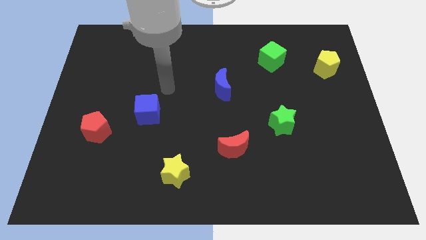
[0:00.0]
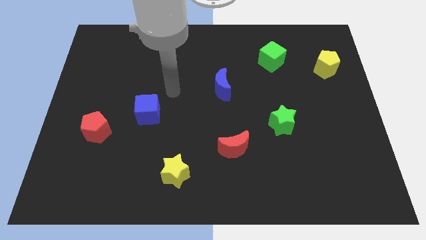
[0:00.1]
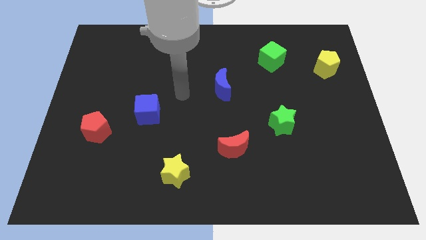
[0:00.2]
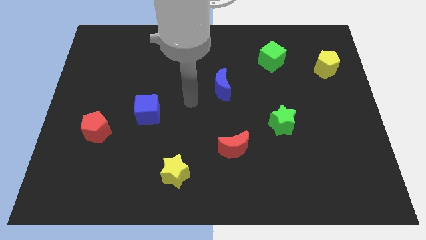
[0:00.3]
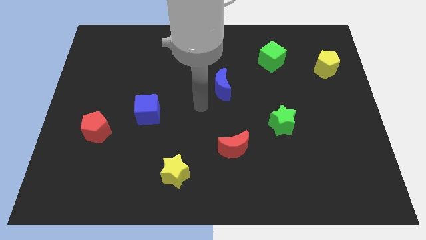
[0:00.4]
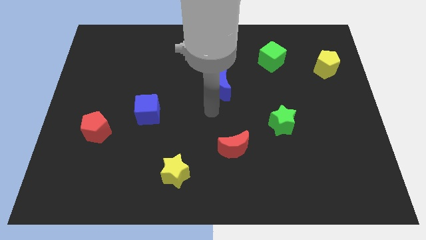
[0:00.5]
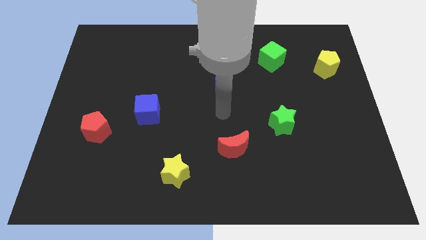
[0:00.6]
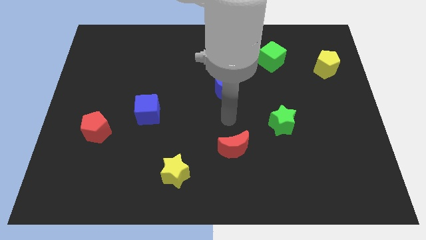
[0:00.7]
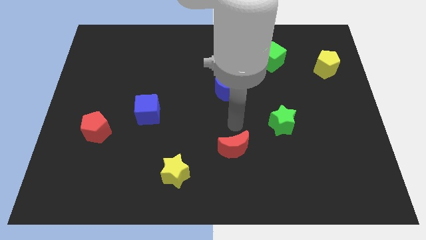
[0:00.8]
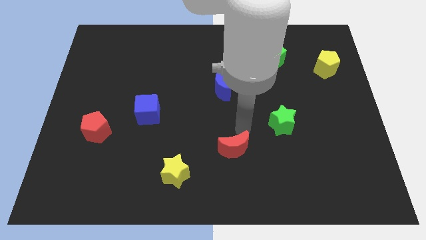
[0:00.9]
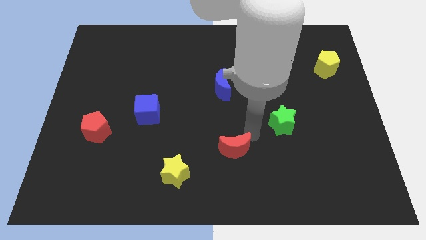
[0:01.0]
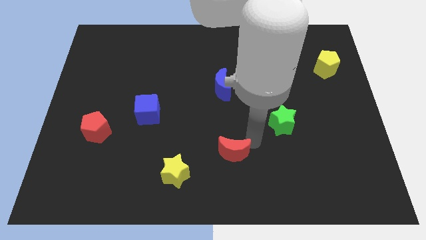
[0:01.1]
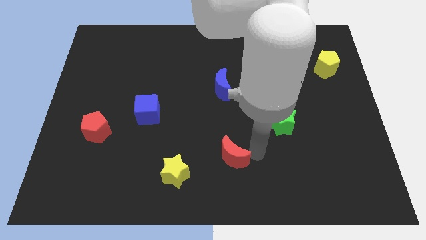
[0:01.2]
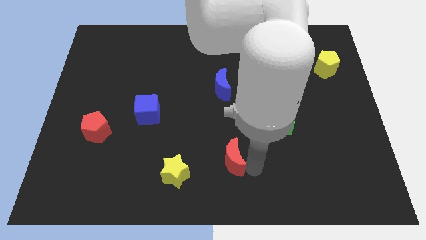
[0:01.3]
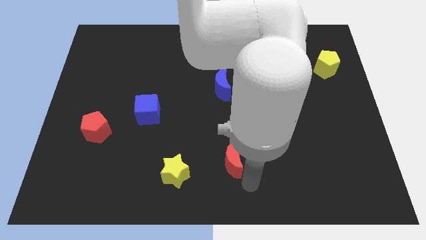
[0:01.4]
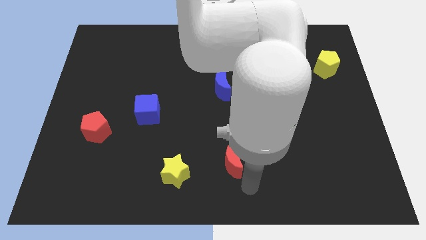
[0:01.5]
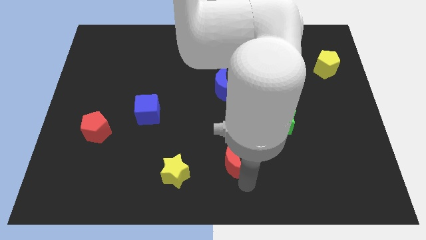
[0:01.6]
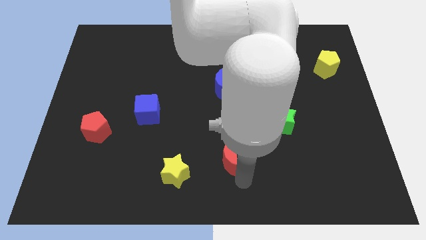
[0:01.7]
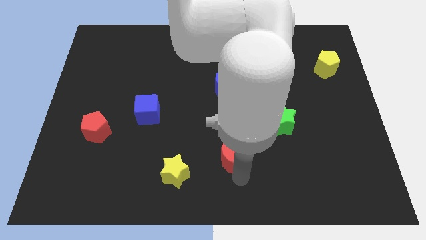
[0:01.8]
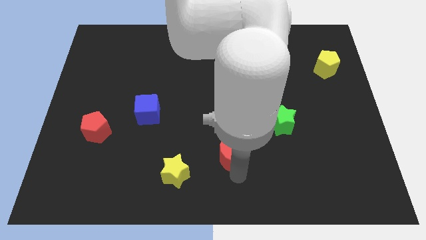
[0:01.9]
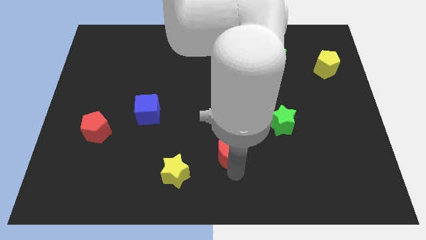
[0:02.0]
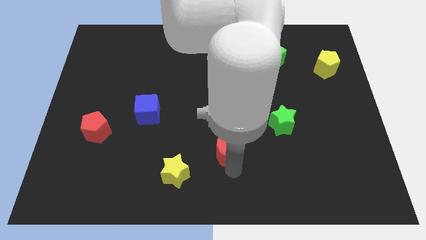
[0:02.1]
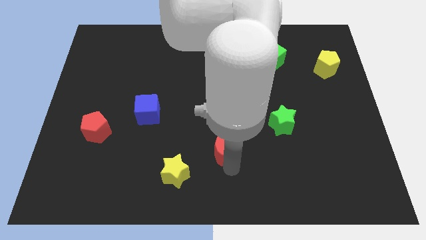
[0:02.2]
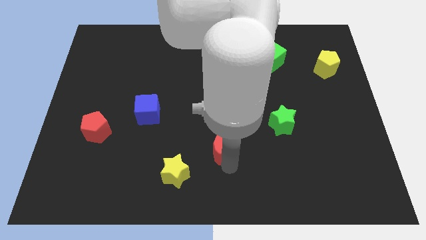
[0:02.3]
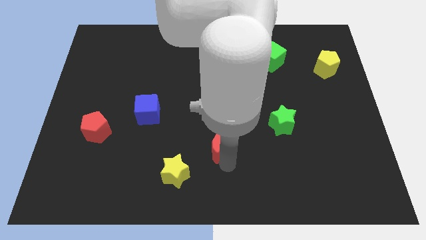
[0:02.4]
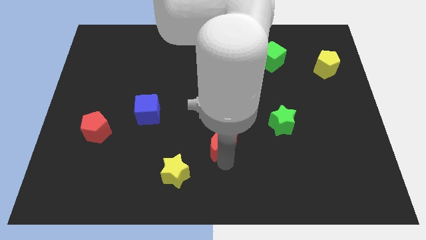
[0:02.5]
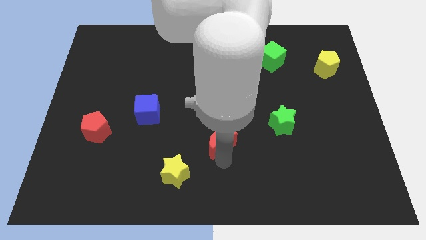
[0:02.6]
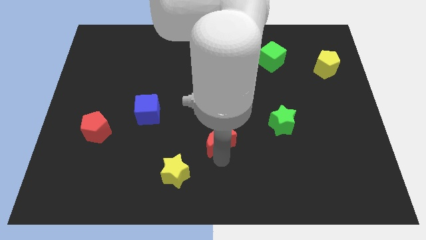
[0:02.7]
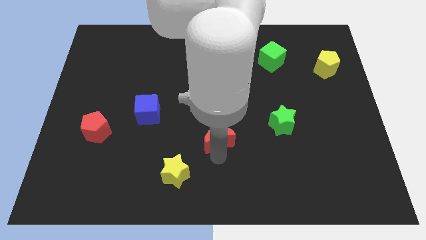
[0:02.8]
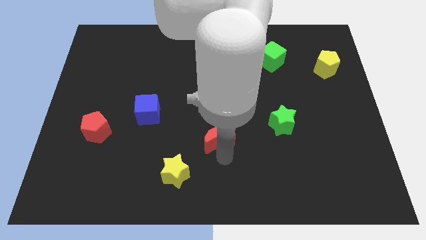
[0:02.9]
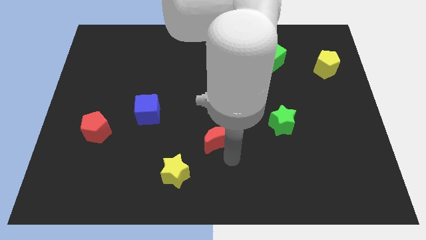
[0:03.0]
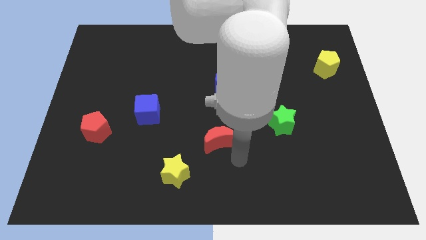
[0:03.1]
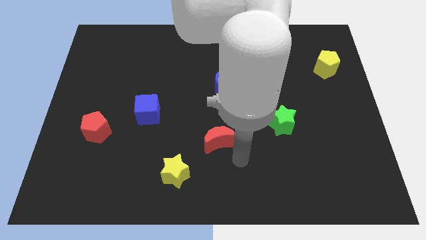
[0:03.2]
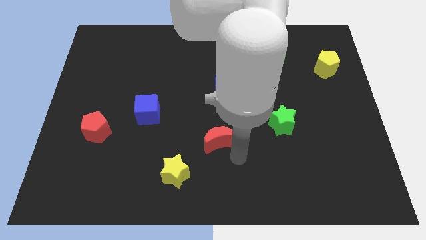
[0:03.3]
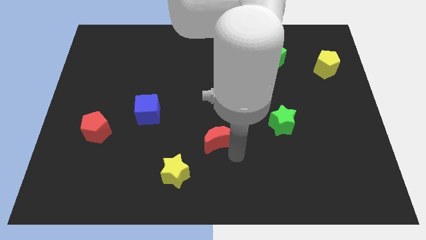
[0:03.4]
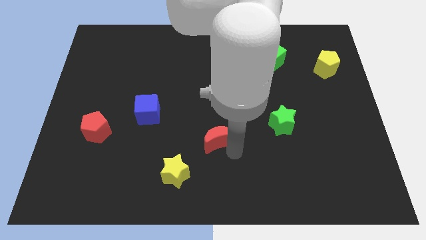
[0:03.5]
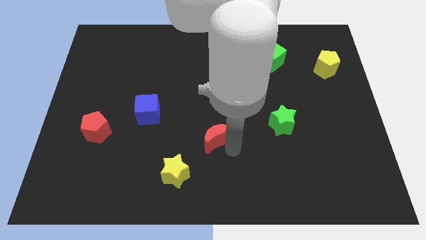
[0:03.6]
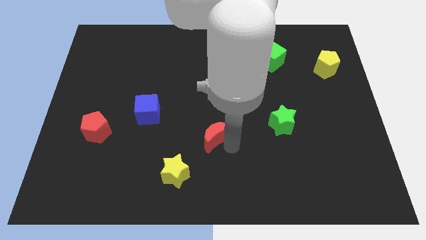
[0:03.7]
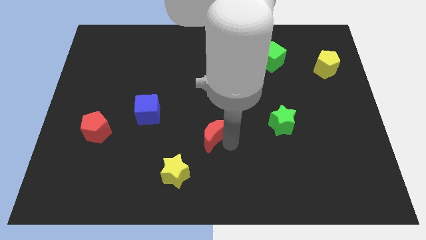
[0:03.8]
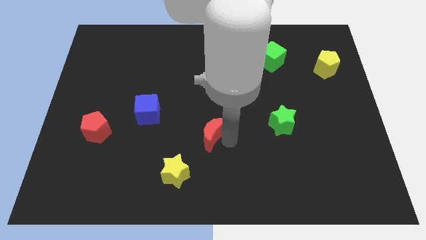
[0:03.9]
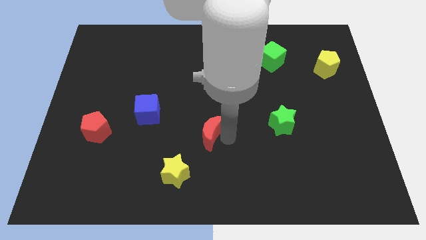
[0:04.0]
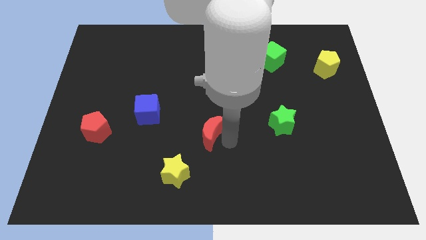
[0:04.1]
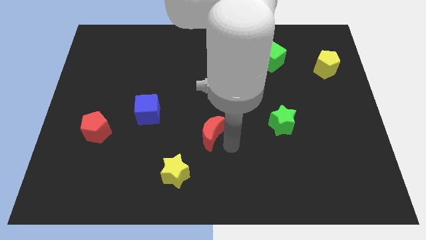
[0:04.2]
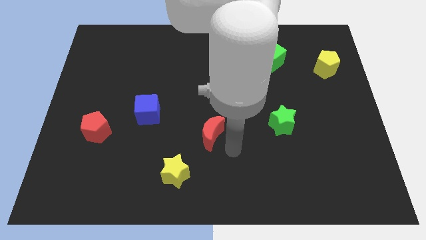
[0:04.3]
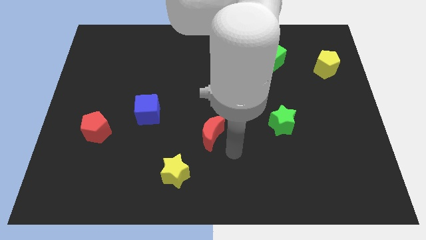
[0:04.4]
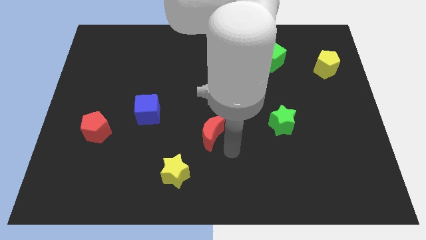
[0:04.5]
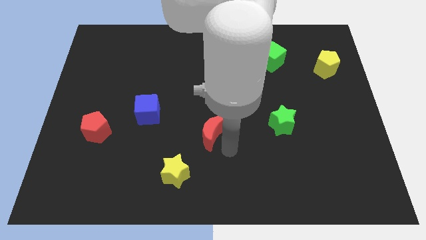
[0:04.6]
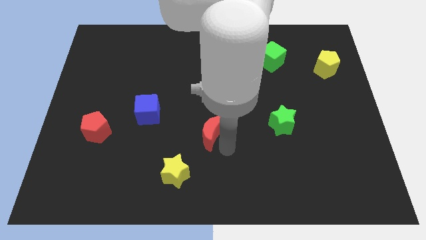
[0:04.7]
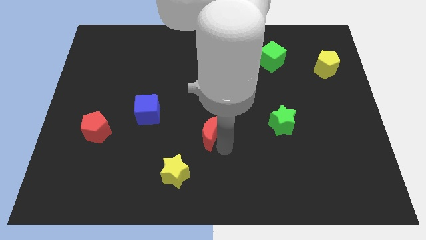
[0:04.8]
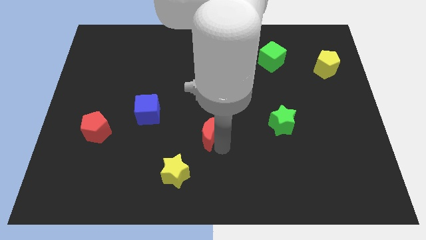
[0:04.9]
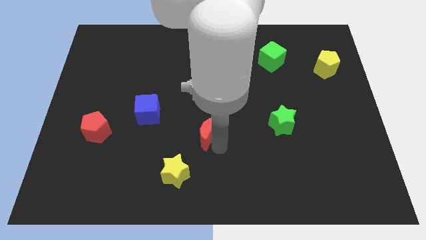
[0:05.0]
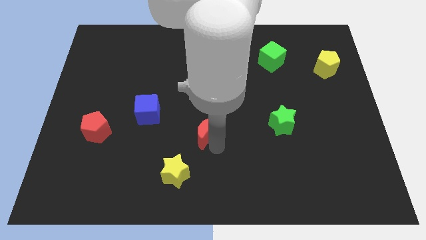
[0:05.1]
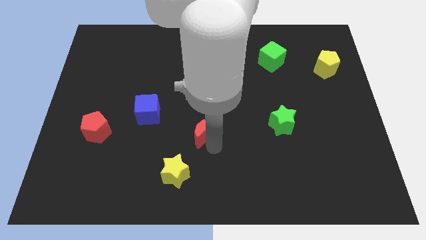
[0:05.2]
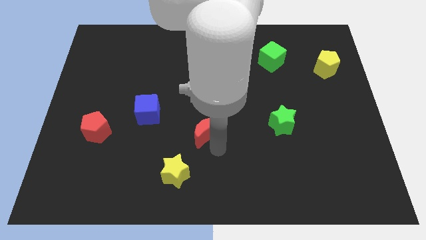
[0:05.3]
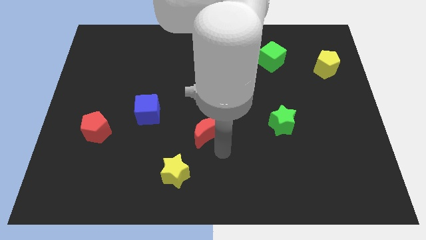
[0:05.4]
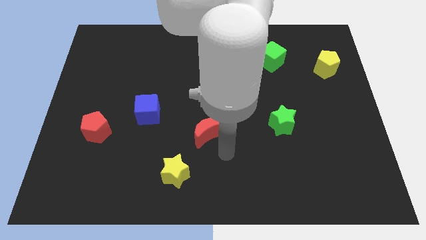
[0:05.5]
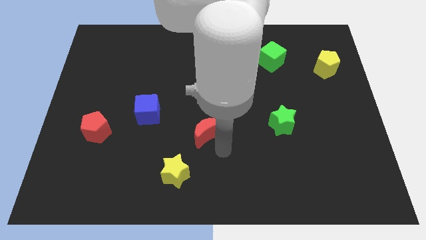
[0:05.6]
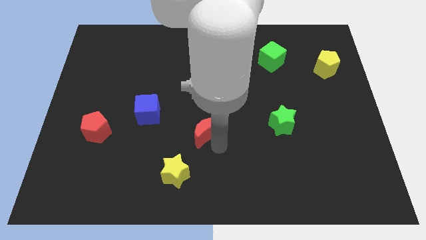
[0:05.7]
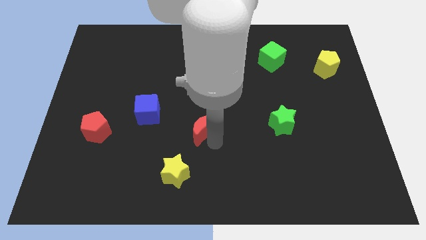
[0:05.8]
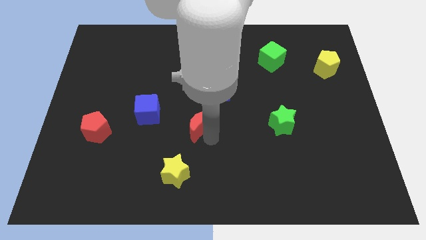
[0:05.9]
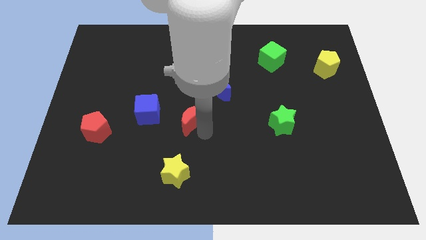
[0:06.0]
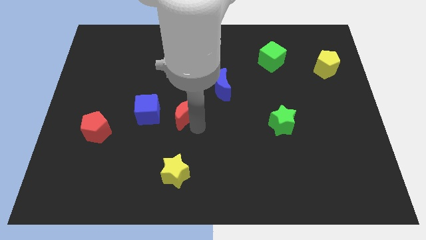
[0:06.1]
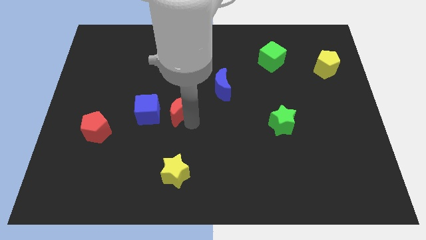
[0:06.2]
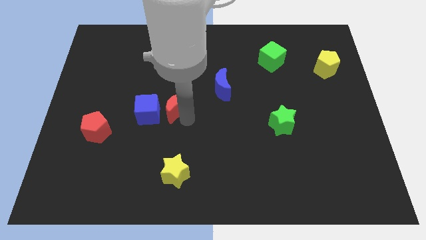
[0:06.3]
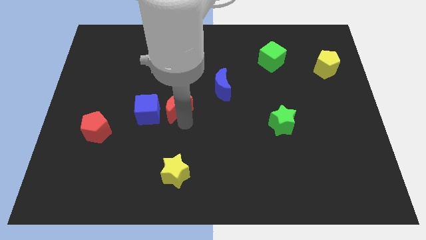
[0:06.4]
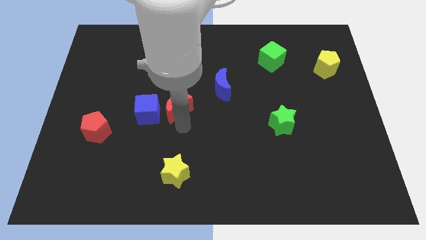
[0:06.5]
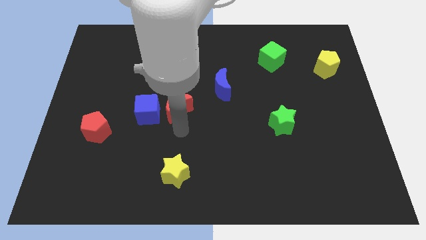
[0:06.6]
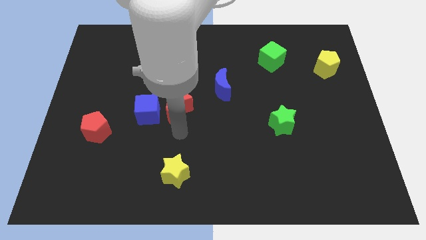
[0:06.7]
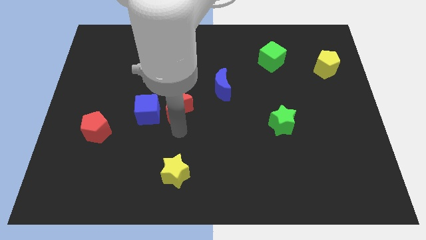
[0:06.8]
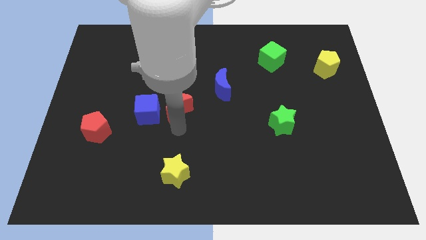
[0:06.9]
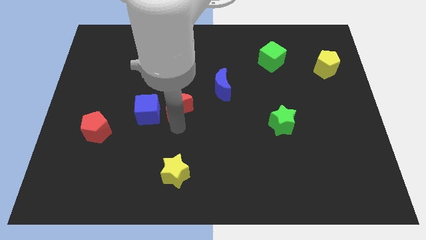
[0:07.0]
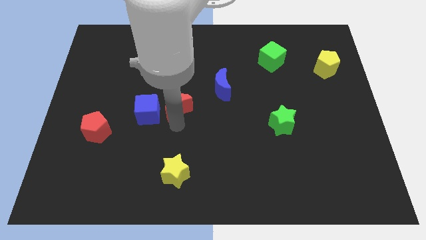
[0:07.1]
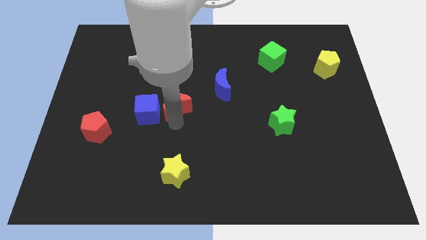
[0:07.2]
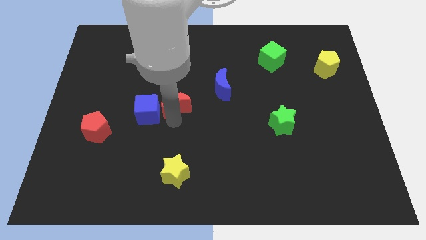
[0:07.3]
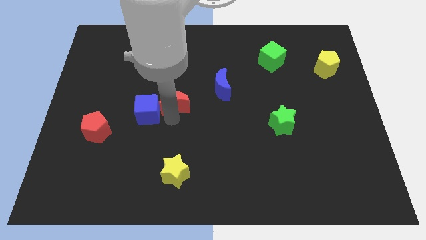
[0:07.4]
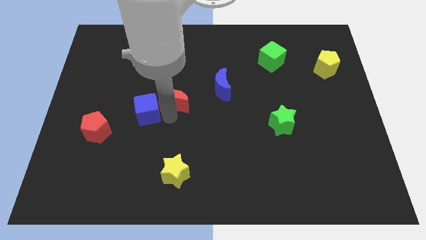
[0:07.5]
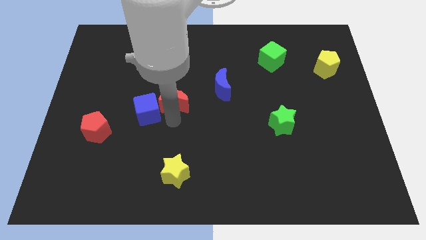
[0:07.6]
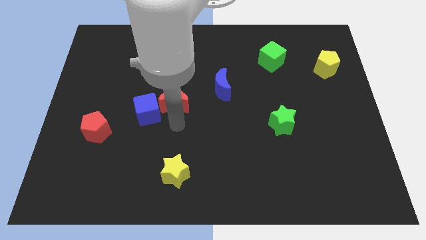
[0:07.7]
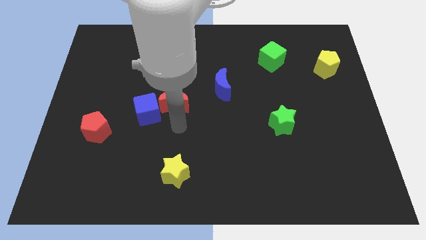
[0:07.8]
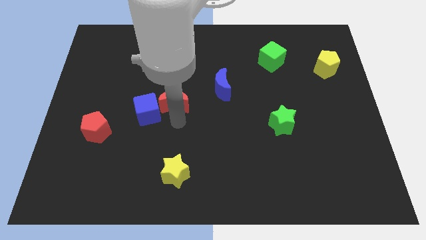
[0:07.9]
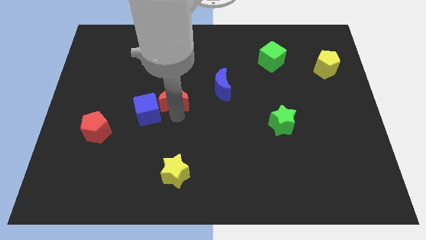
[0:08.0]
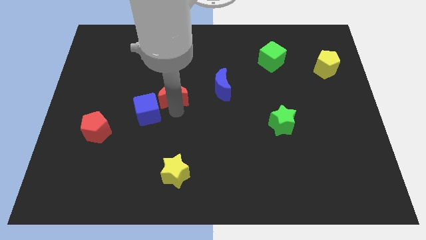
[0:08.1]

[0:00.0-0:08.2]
slide the red moon upwards and left diagonally
